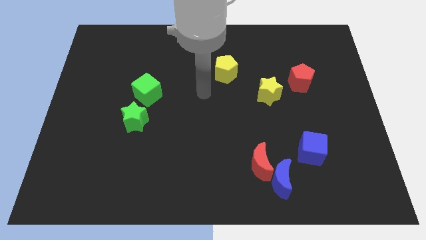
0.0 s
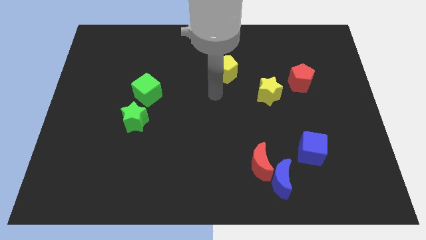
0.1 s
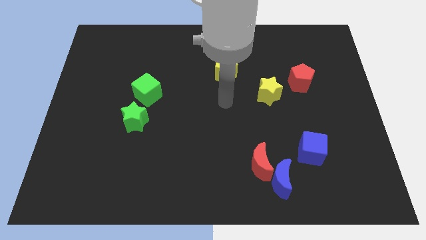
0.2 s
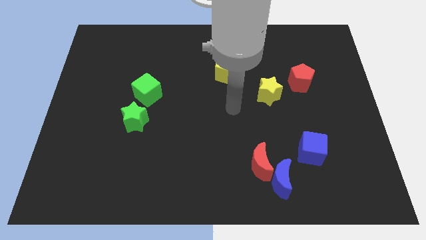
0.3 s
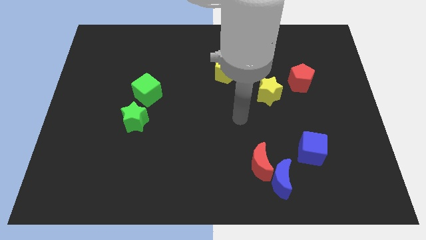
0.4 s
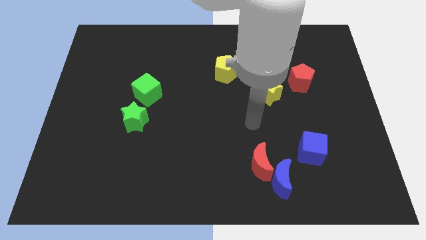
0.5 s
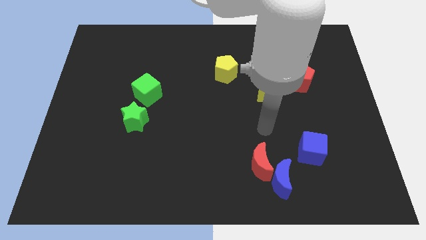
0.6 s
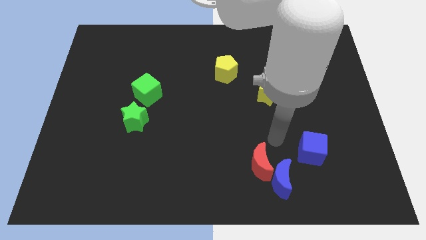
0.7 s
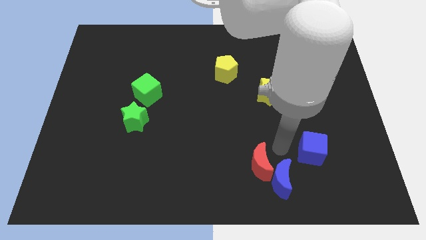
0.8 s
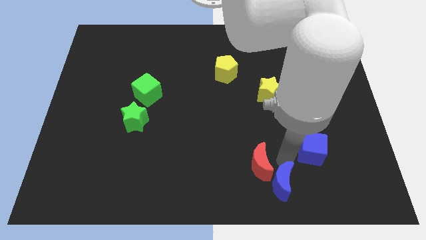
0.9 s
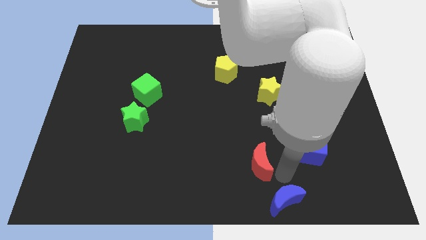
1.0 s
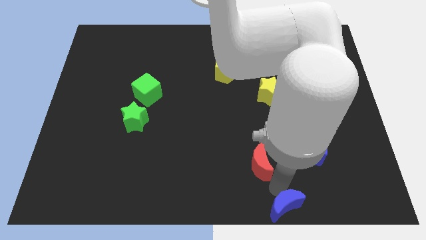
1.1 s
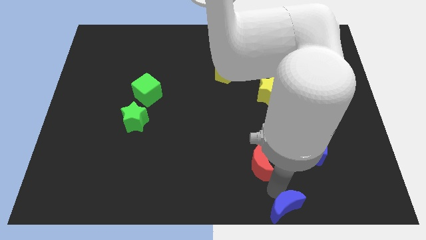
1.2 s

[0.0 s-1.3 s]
pull the red moon apart from the blue moon

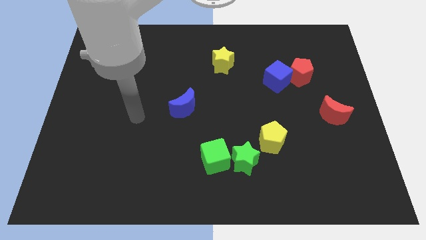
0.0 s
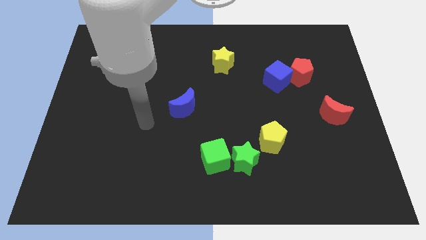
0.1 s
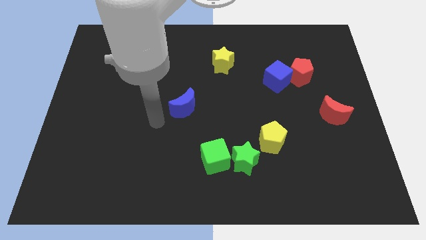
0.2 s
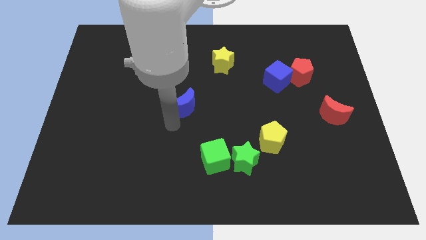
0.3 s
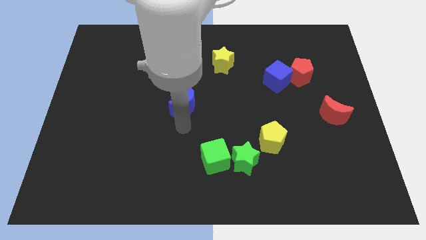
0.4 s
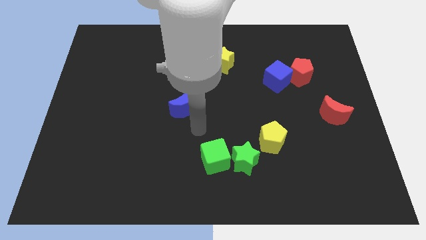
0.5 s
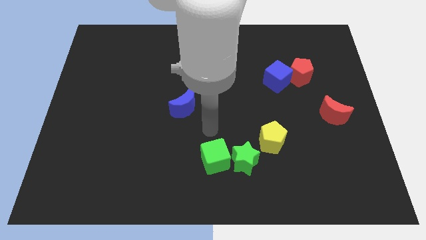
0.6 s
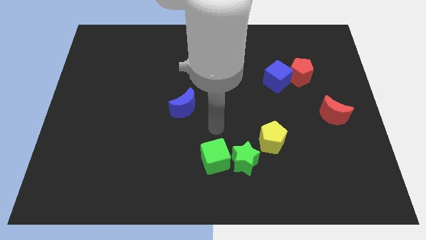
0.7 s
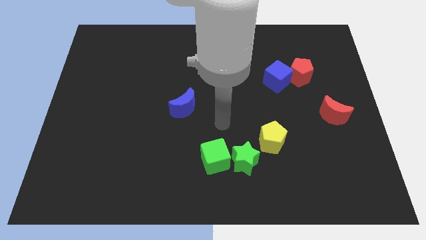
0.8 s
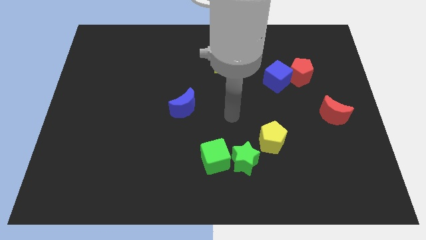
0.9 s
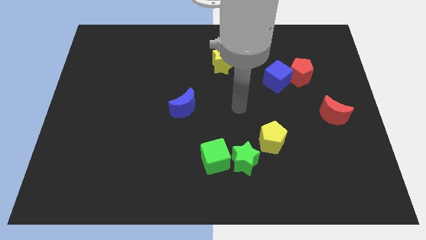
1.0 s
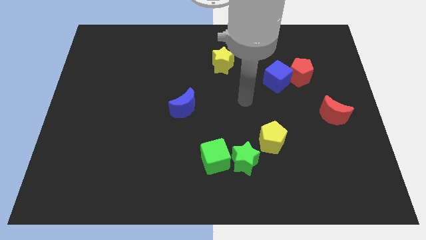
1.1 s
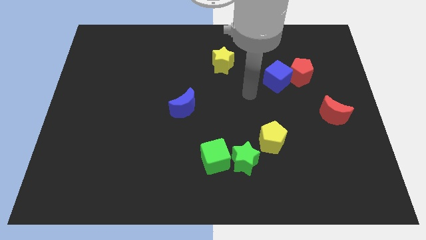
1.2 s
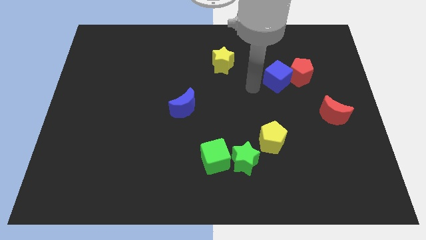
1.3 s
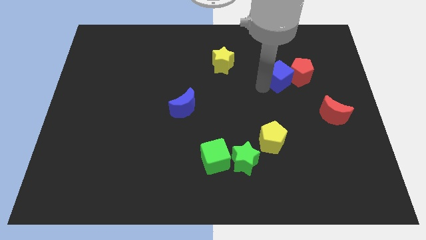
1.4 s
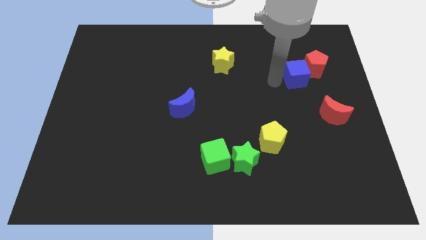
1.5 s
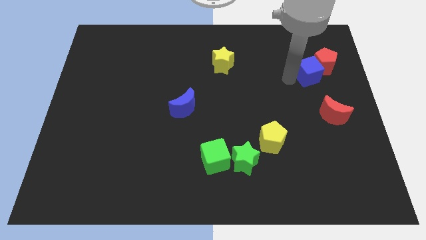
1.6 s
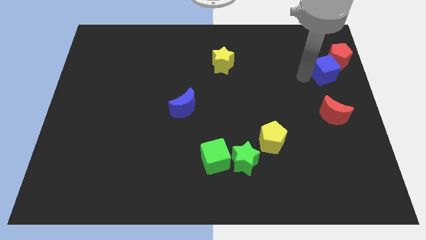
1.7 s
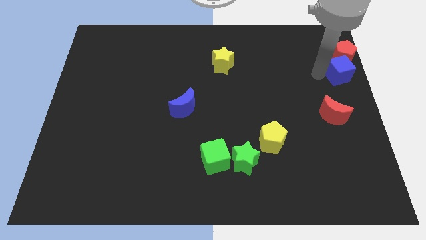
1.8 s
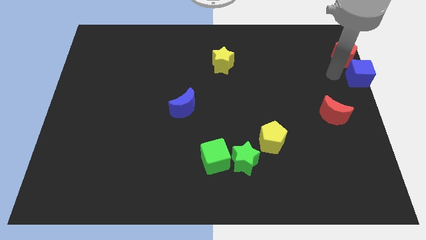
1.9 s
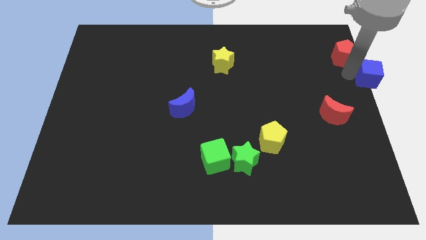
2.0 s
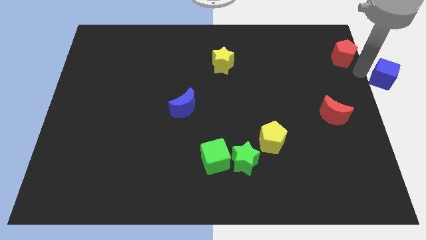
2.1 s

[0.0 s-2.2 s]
separate the red pentagon from the blue cube

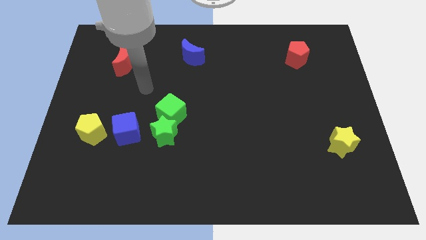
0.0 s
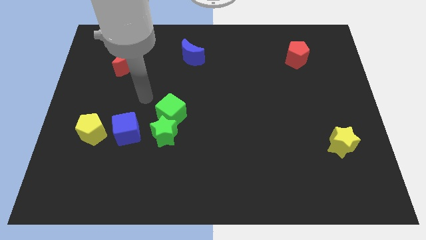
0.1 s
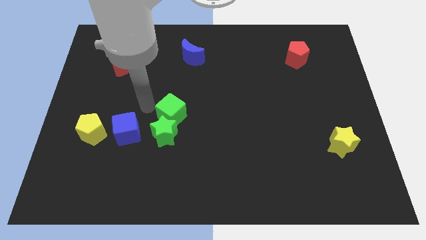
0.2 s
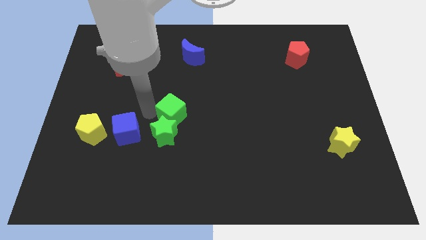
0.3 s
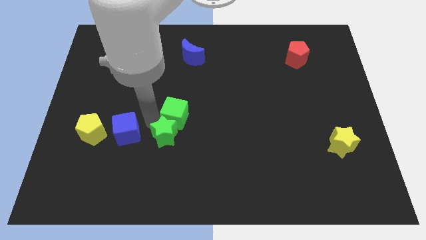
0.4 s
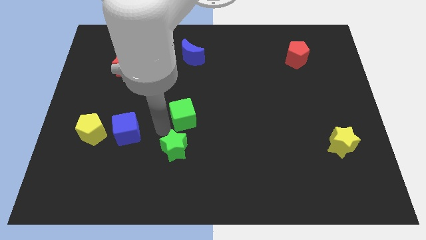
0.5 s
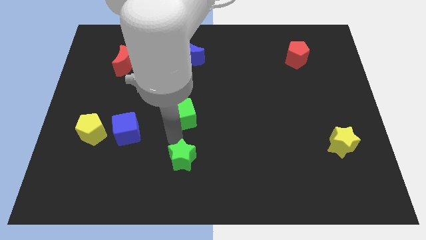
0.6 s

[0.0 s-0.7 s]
pull the green cube apart from the green star

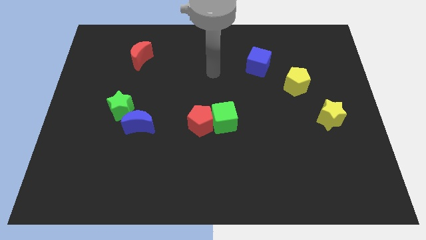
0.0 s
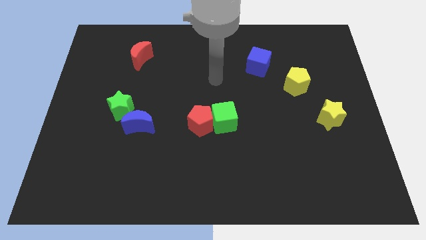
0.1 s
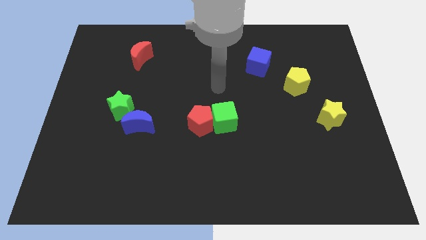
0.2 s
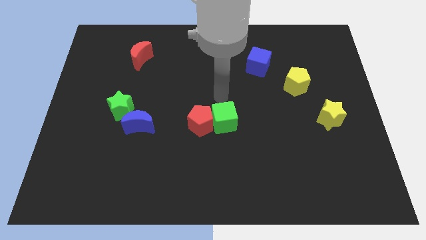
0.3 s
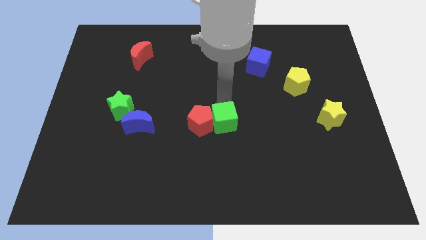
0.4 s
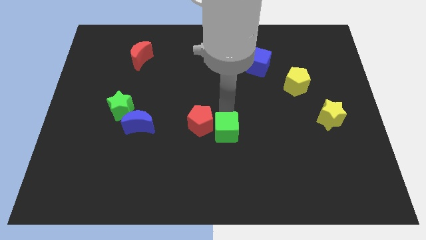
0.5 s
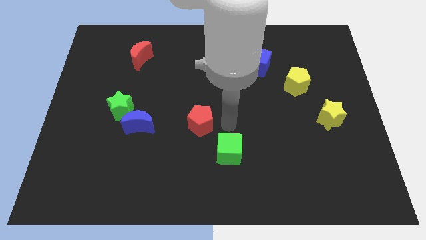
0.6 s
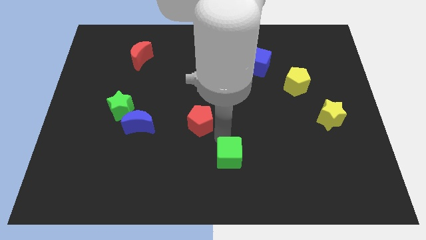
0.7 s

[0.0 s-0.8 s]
move the red pentagon away from the green cube

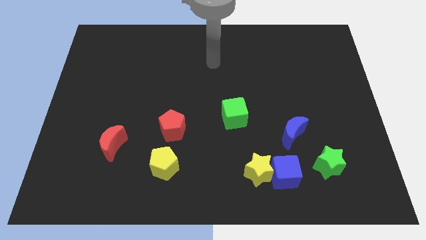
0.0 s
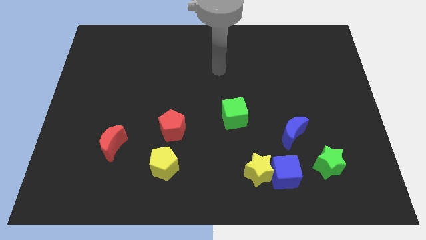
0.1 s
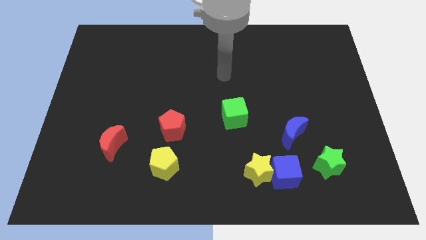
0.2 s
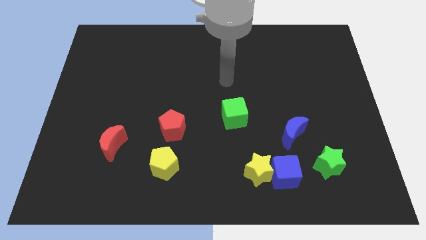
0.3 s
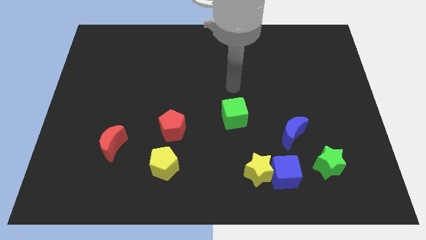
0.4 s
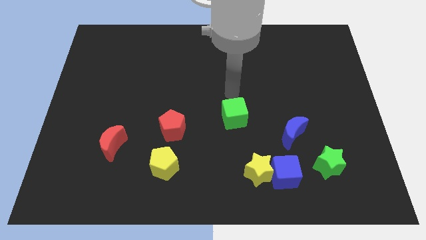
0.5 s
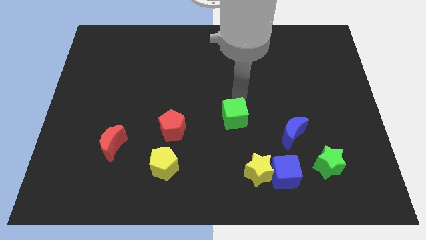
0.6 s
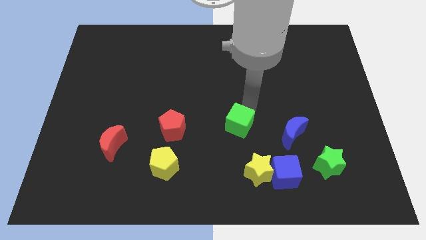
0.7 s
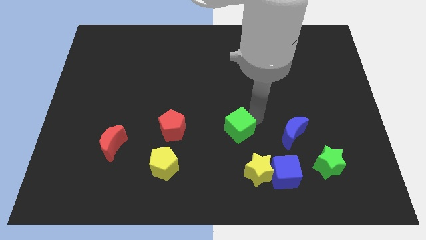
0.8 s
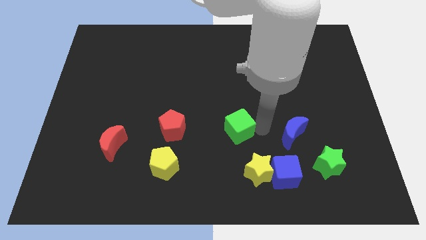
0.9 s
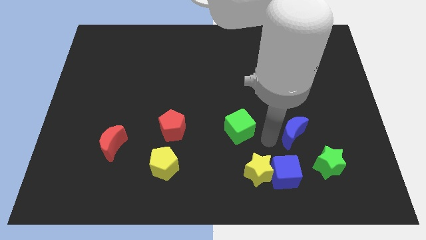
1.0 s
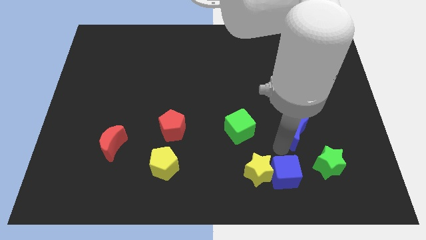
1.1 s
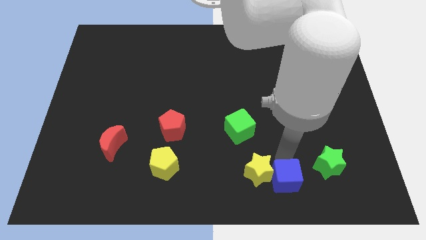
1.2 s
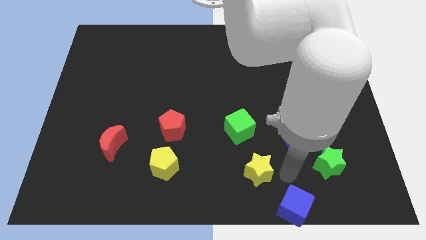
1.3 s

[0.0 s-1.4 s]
move the yellow star away from the blue cube

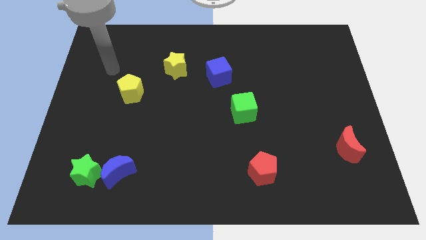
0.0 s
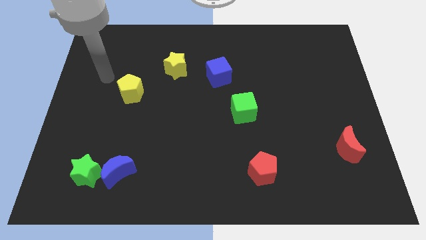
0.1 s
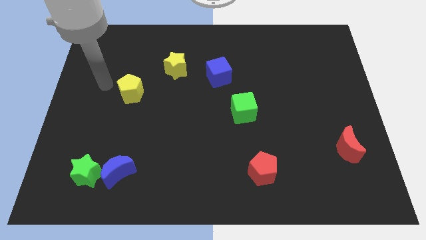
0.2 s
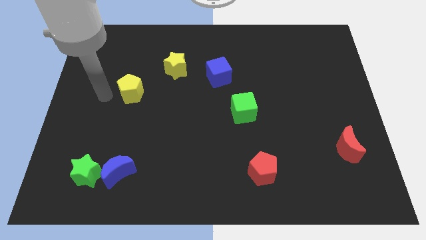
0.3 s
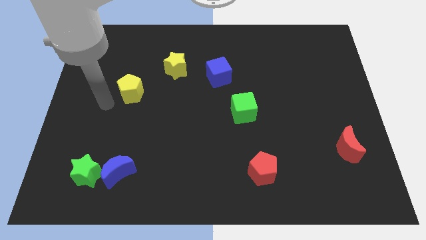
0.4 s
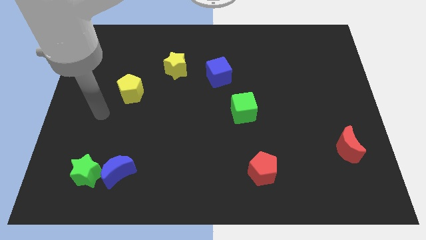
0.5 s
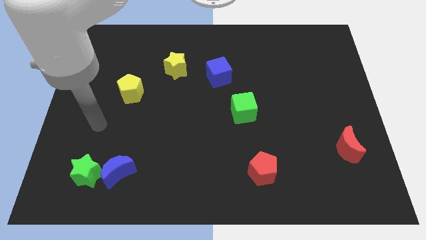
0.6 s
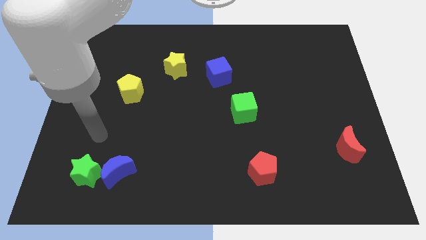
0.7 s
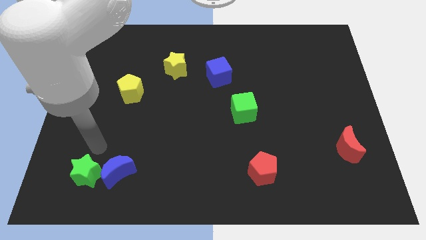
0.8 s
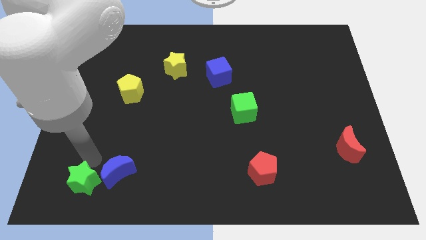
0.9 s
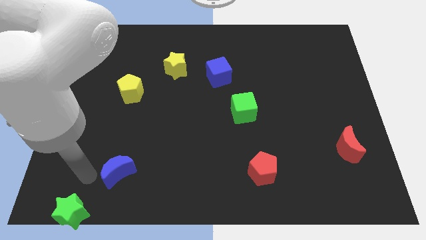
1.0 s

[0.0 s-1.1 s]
move the blue moon away from the green star

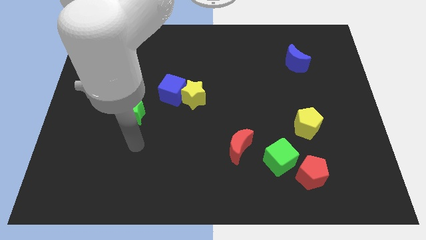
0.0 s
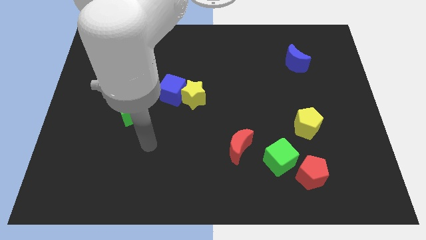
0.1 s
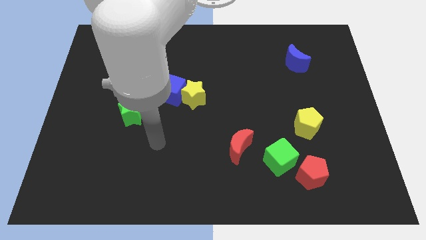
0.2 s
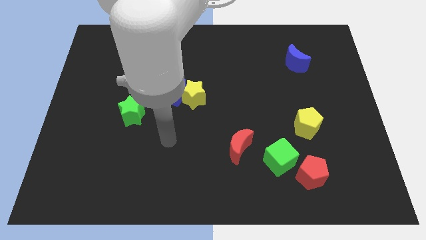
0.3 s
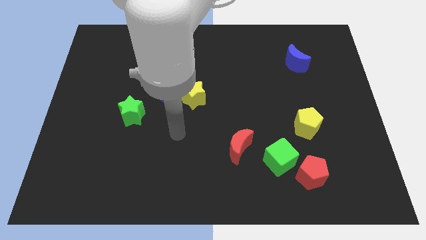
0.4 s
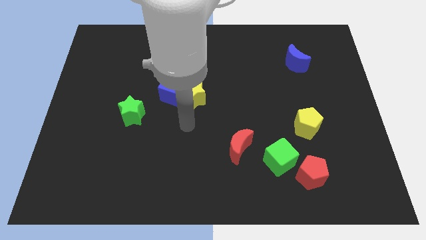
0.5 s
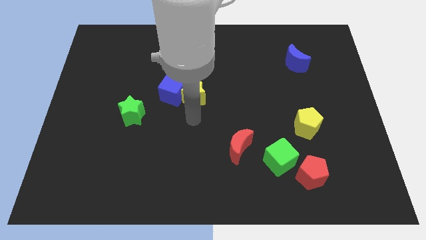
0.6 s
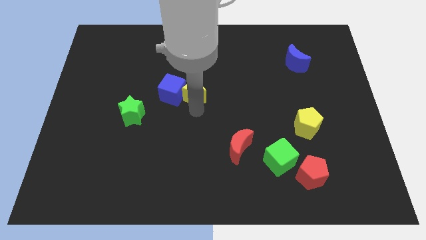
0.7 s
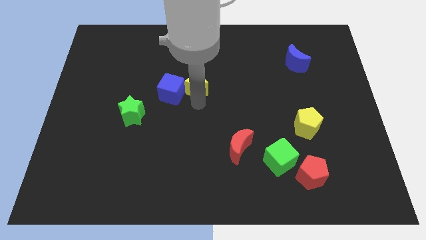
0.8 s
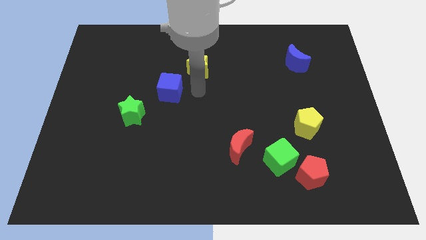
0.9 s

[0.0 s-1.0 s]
pull the blue cube apart from the yellow star

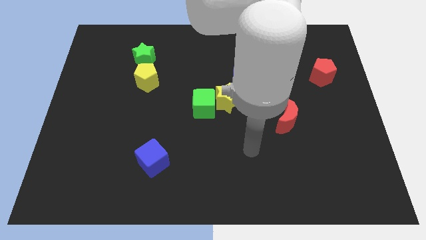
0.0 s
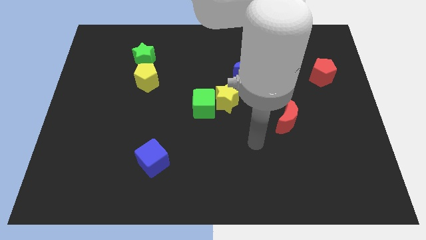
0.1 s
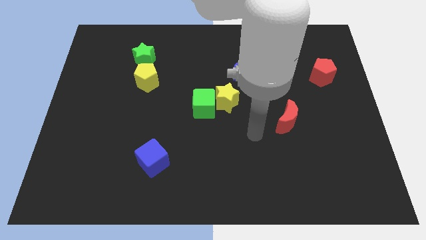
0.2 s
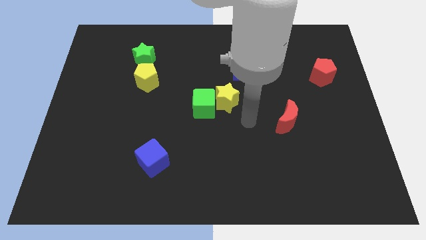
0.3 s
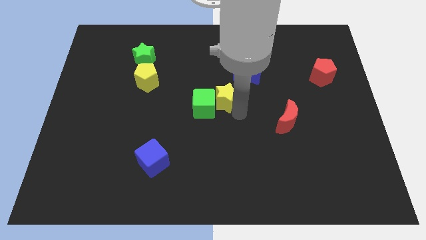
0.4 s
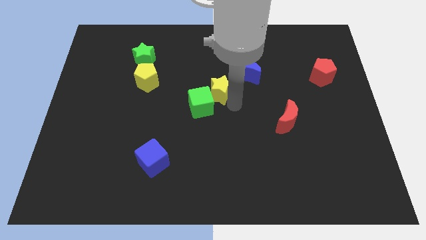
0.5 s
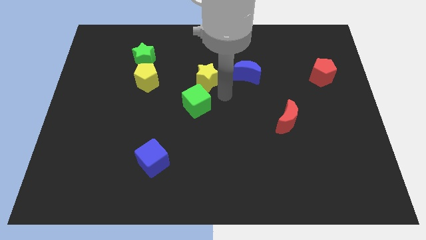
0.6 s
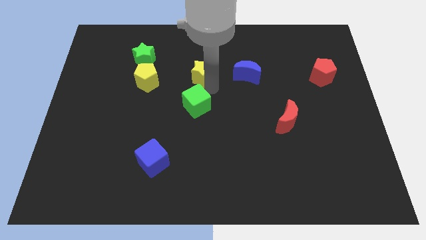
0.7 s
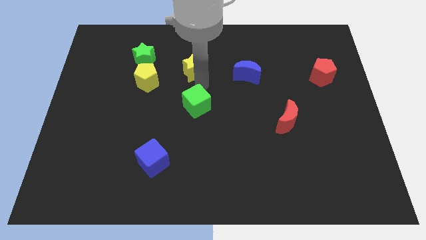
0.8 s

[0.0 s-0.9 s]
pull the green cube apart from the yellow star
